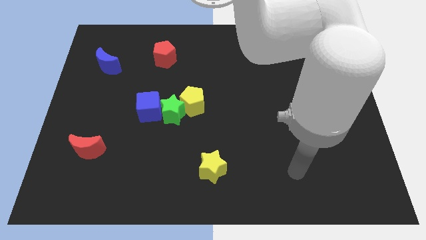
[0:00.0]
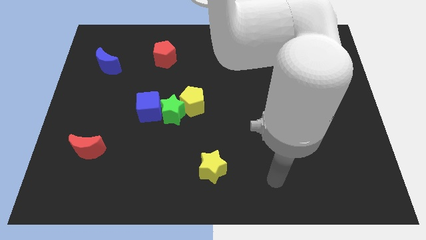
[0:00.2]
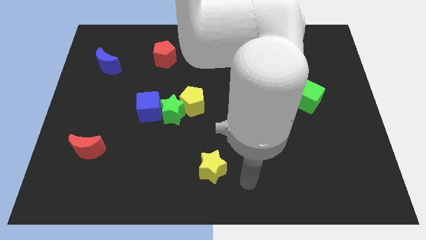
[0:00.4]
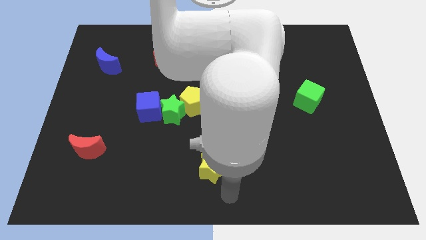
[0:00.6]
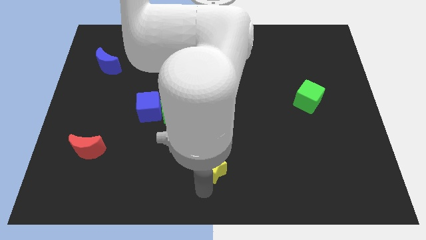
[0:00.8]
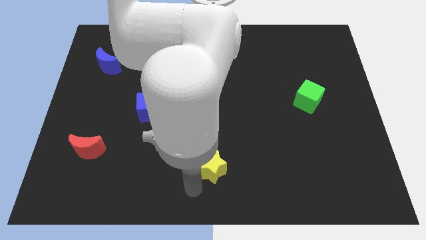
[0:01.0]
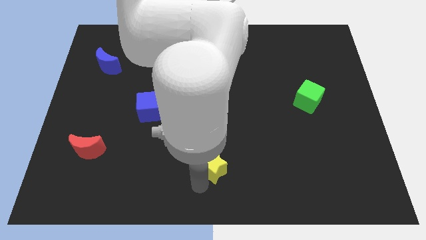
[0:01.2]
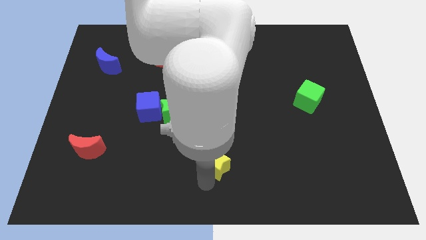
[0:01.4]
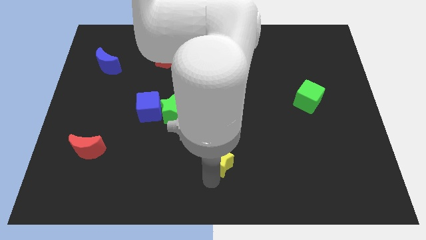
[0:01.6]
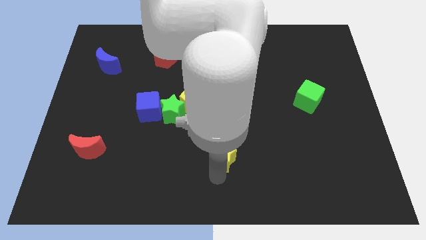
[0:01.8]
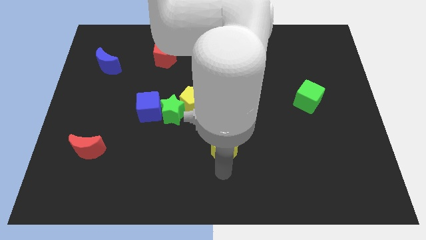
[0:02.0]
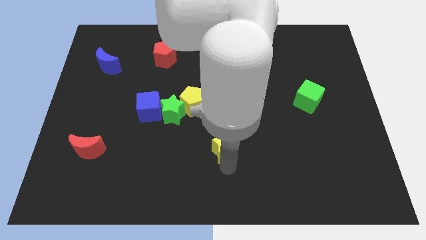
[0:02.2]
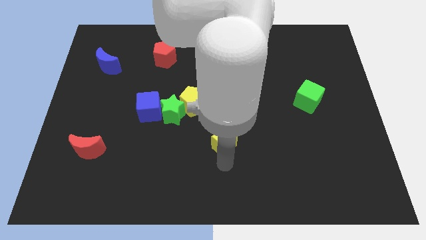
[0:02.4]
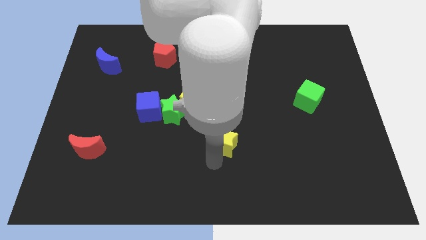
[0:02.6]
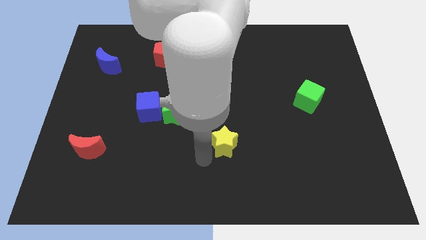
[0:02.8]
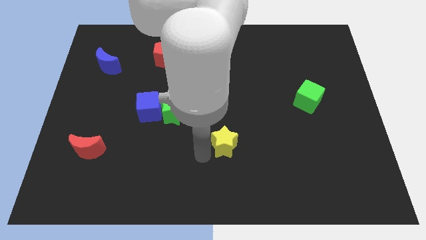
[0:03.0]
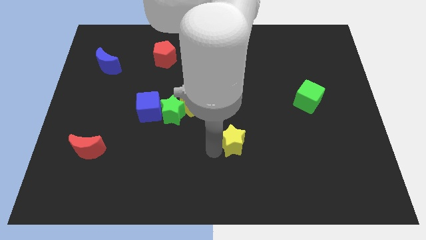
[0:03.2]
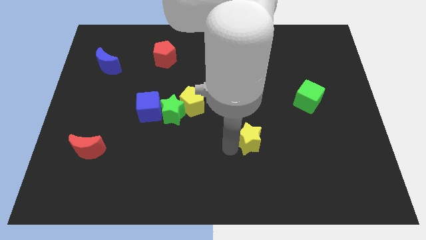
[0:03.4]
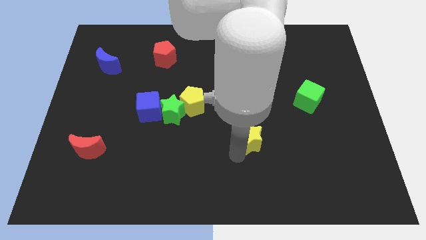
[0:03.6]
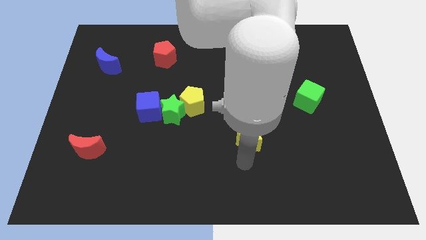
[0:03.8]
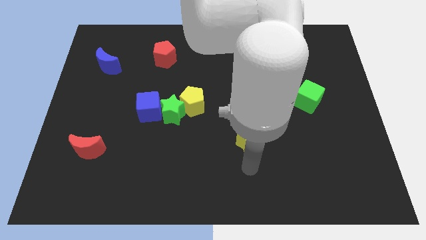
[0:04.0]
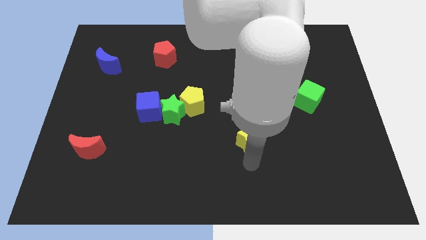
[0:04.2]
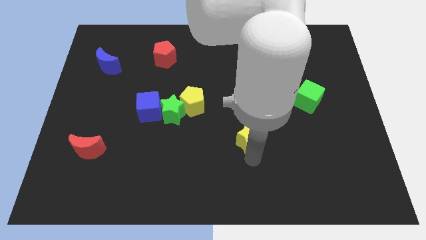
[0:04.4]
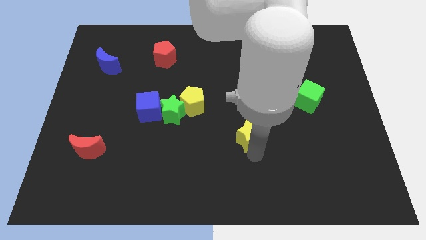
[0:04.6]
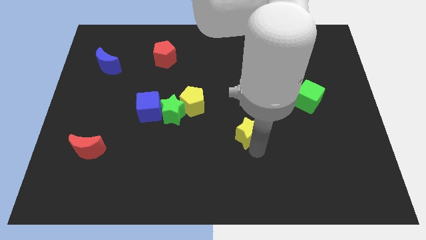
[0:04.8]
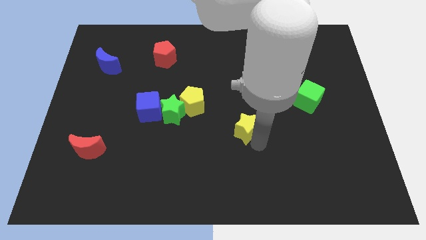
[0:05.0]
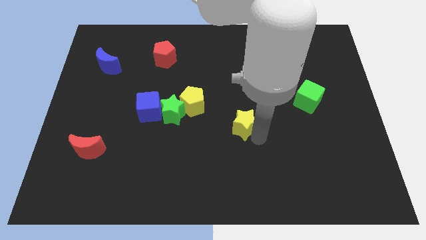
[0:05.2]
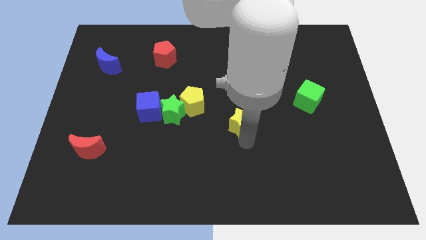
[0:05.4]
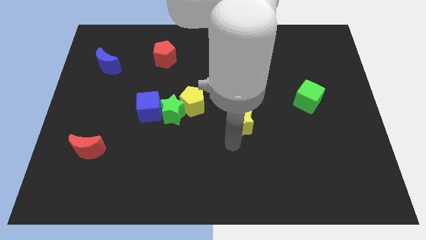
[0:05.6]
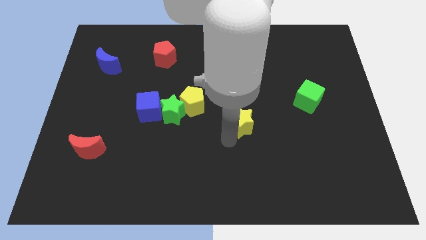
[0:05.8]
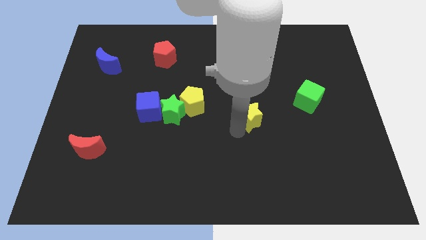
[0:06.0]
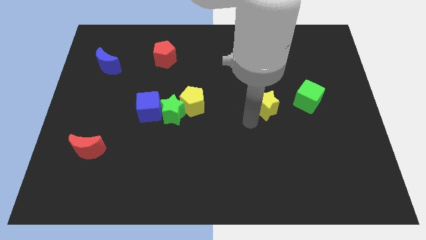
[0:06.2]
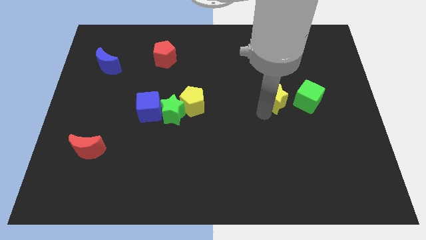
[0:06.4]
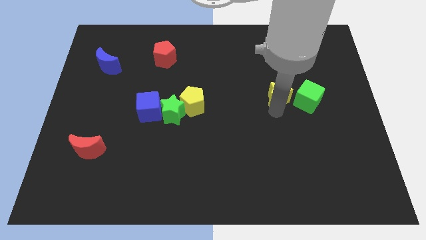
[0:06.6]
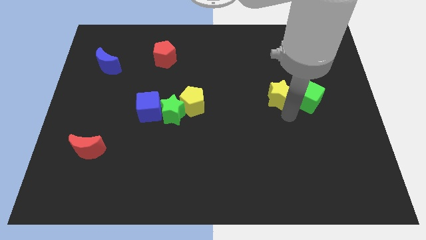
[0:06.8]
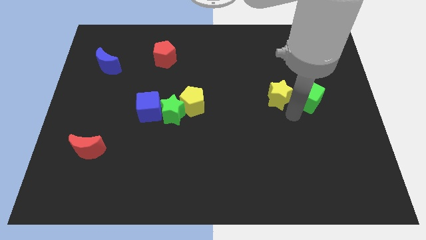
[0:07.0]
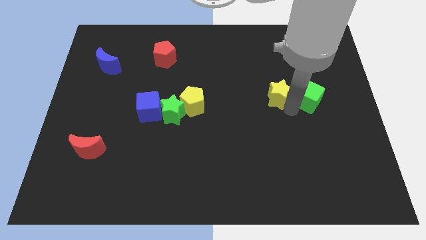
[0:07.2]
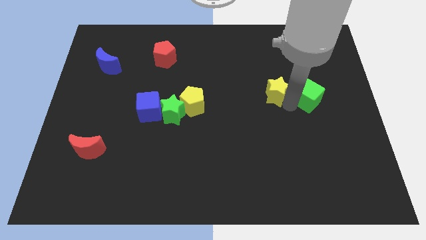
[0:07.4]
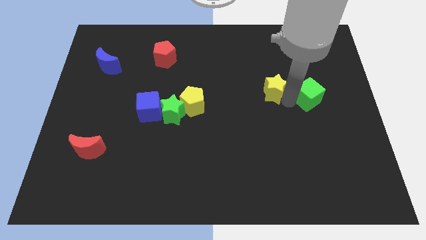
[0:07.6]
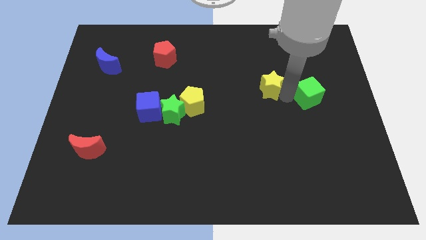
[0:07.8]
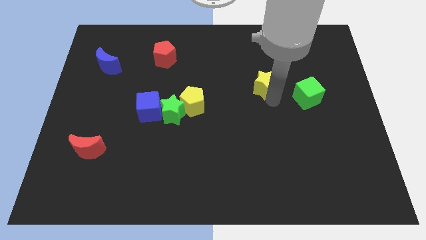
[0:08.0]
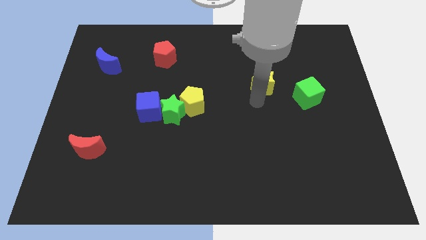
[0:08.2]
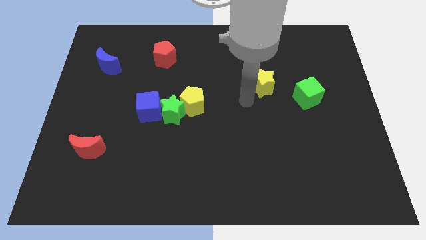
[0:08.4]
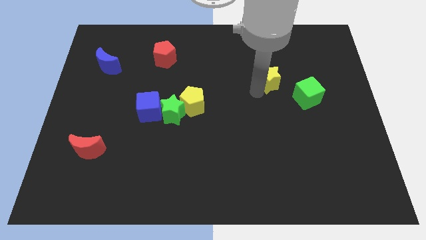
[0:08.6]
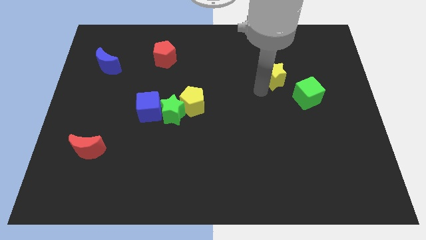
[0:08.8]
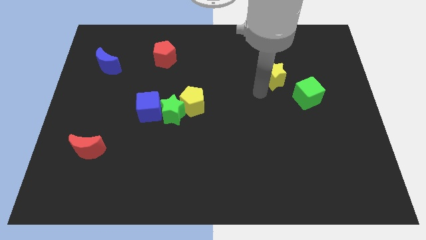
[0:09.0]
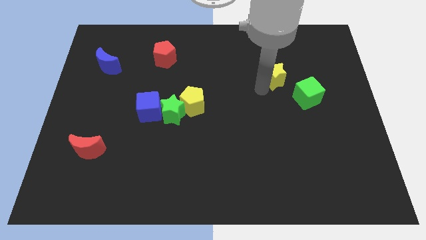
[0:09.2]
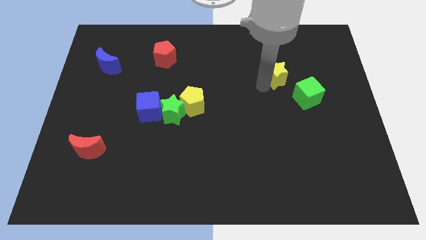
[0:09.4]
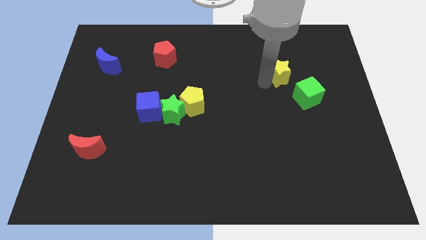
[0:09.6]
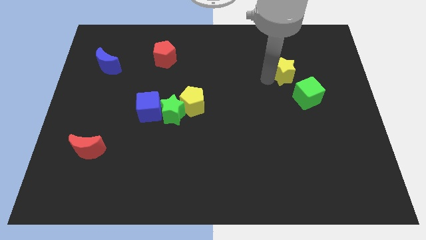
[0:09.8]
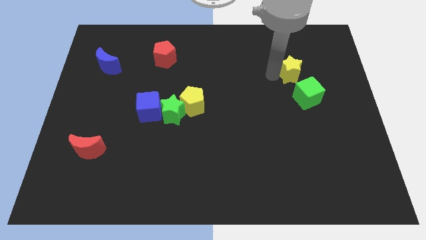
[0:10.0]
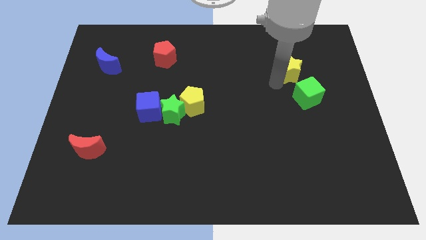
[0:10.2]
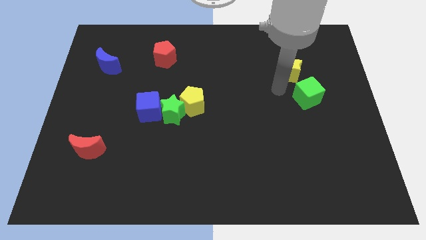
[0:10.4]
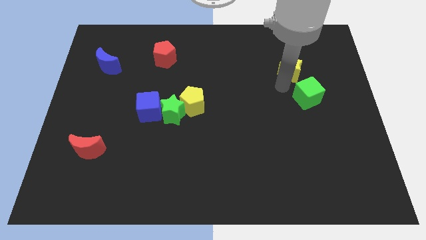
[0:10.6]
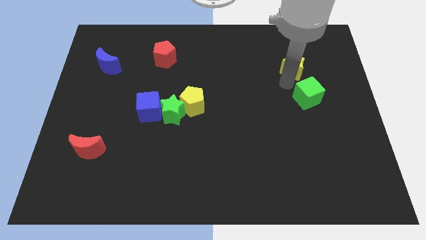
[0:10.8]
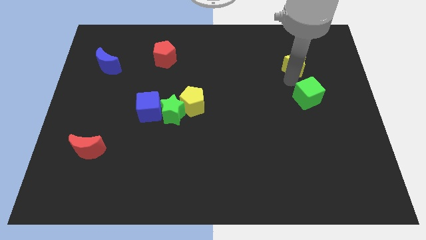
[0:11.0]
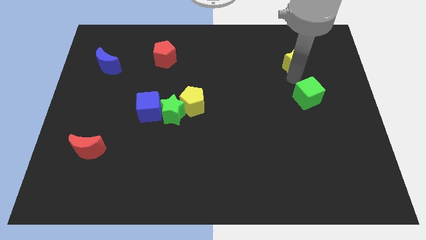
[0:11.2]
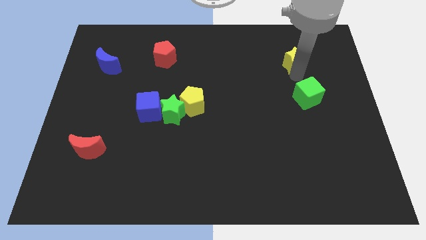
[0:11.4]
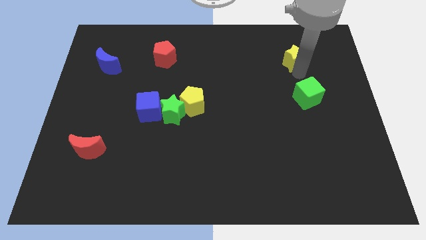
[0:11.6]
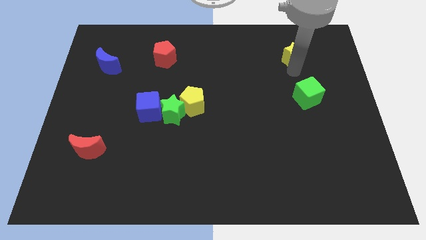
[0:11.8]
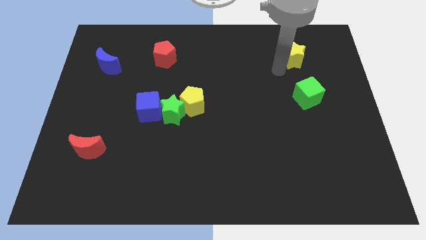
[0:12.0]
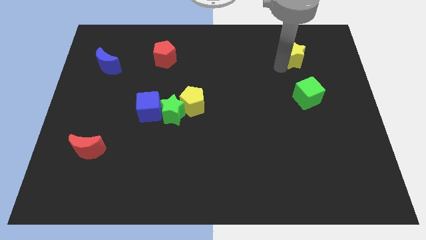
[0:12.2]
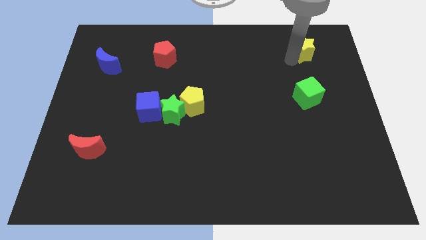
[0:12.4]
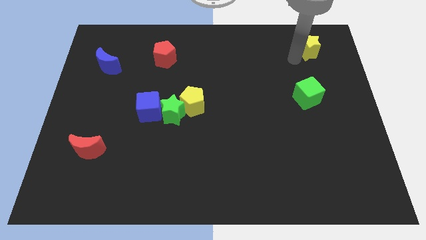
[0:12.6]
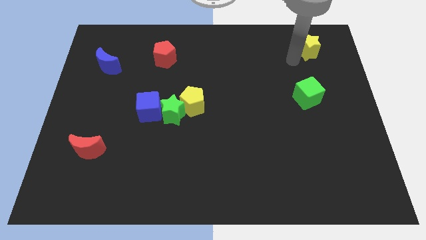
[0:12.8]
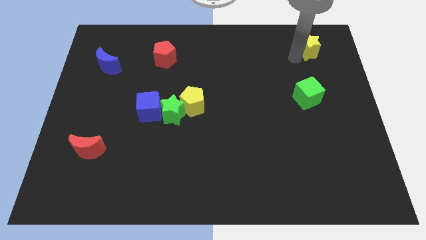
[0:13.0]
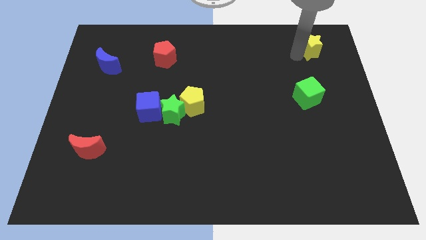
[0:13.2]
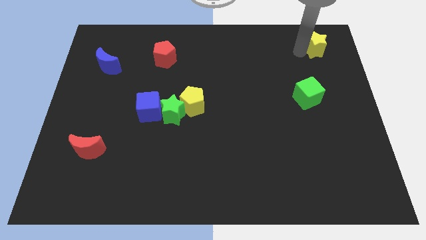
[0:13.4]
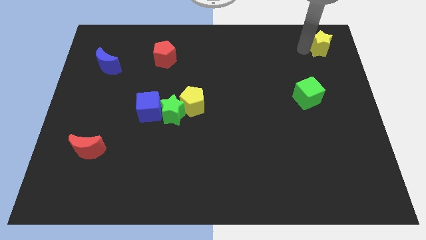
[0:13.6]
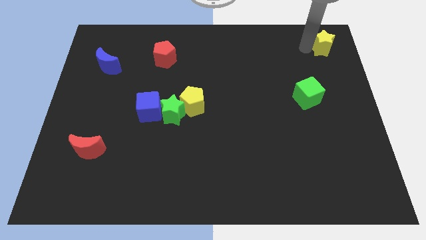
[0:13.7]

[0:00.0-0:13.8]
slide the yellow star to the top right corner
